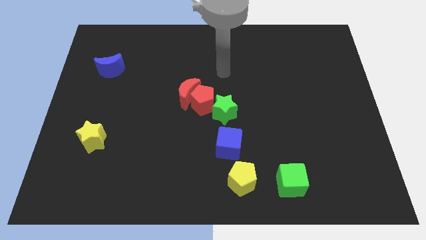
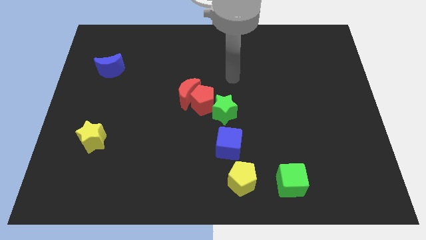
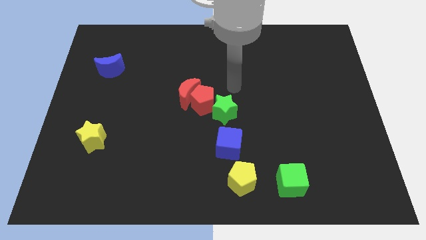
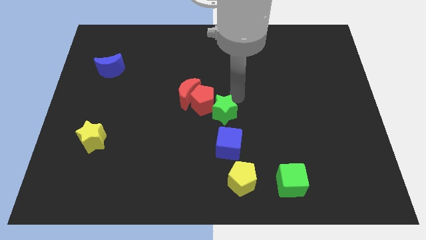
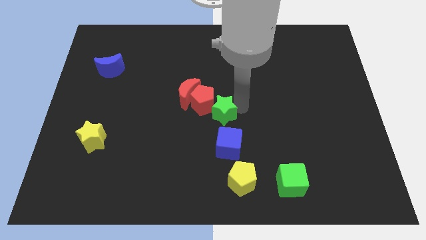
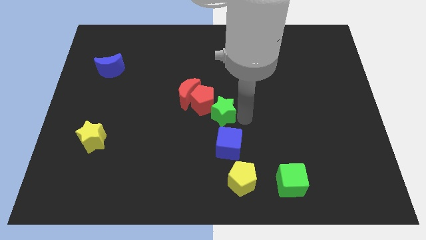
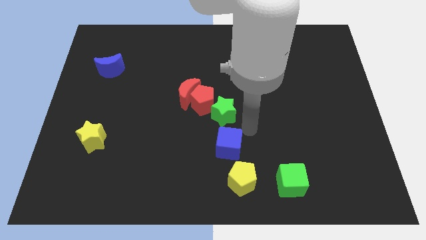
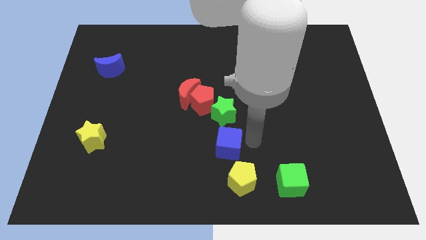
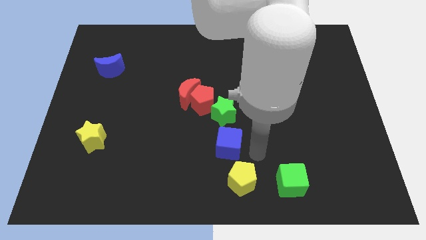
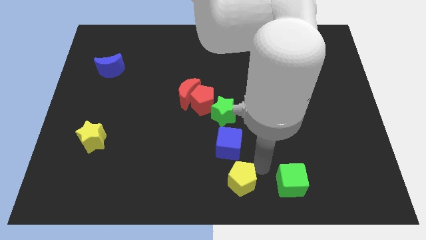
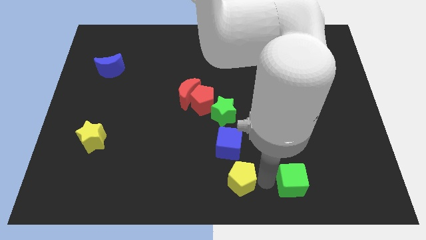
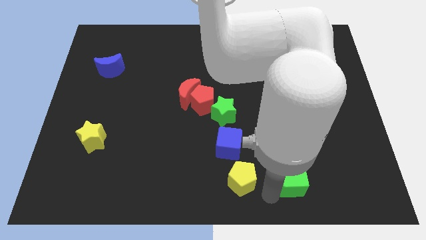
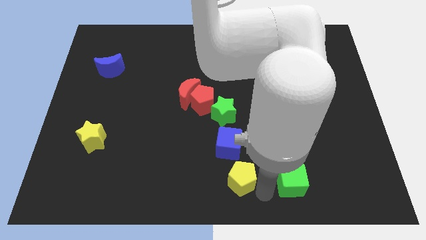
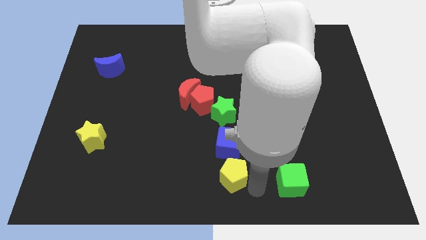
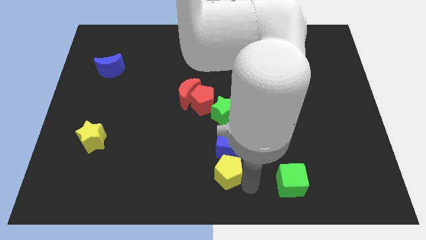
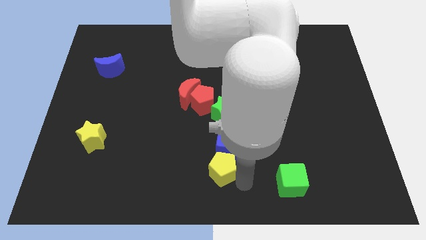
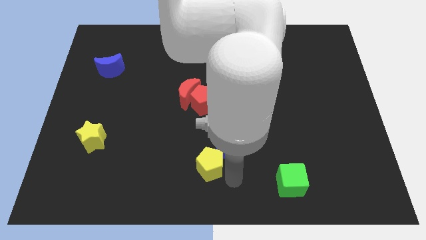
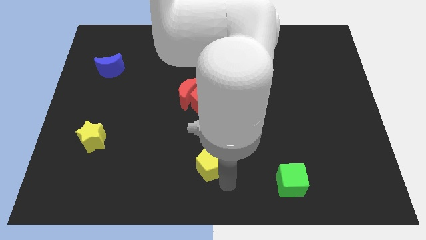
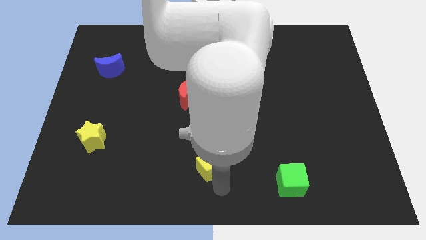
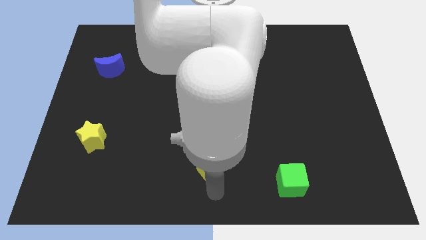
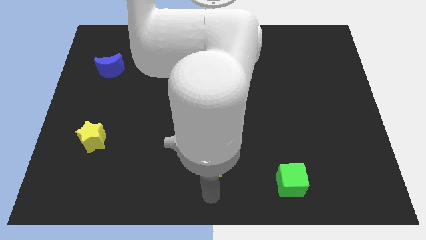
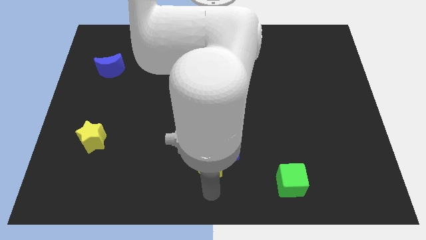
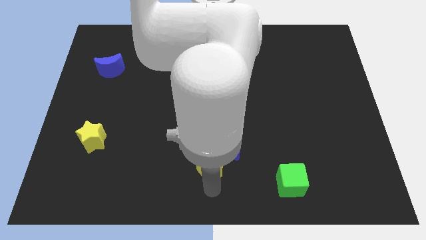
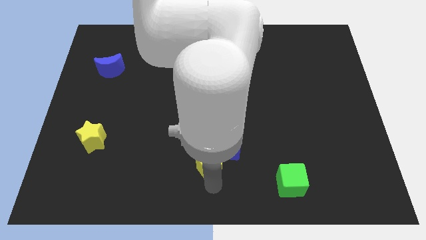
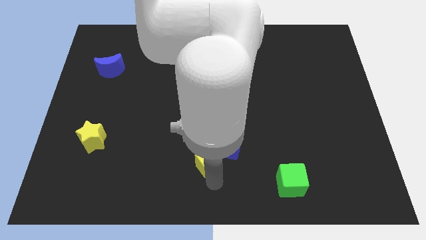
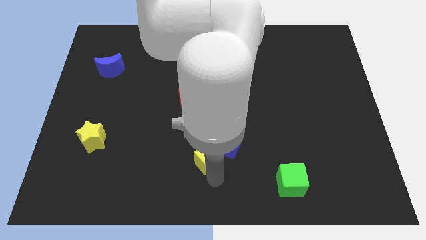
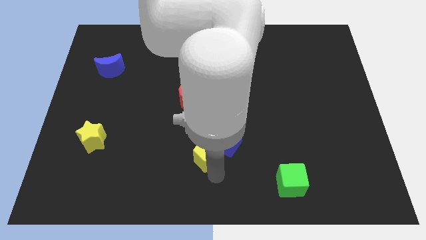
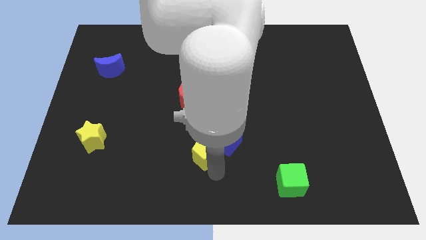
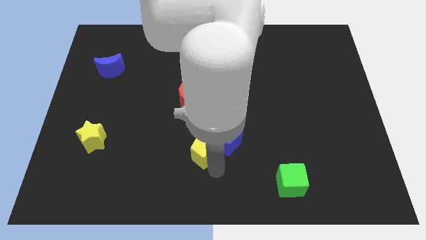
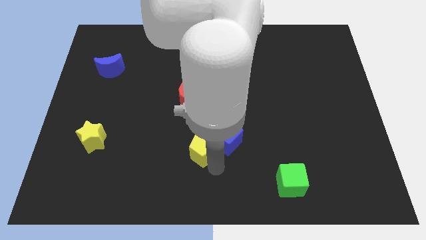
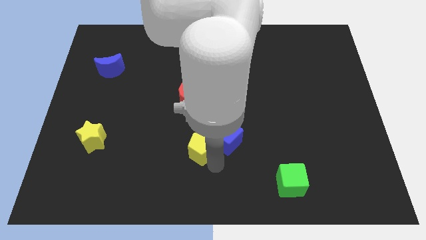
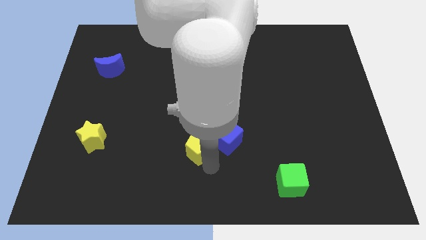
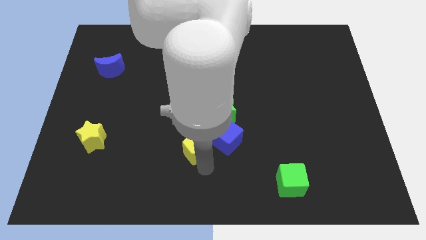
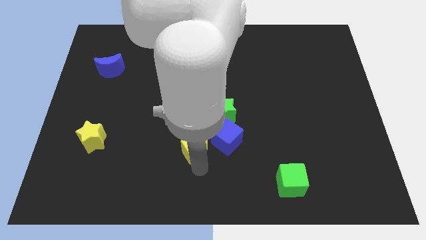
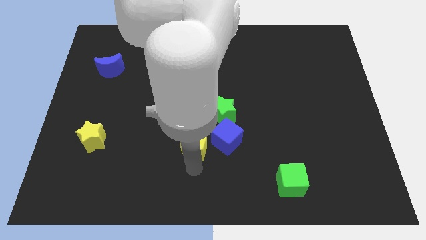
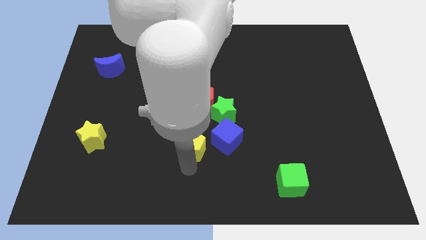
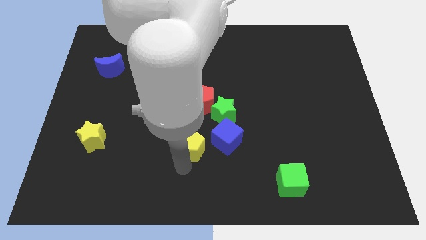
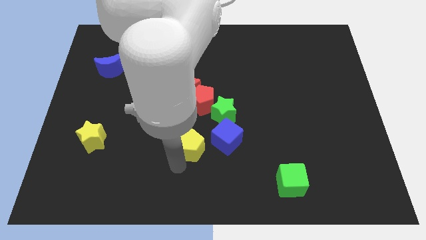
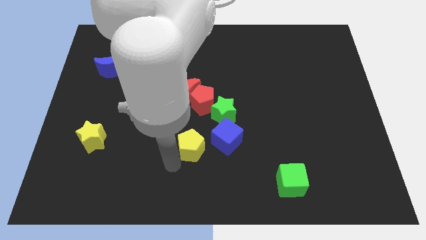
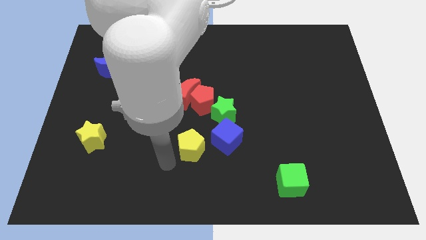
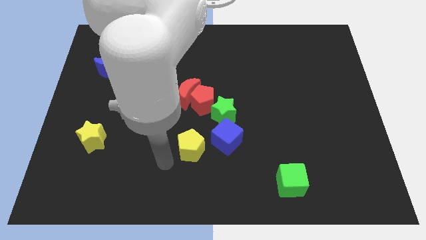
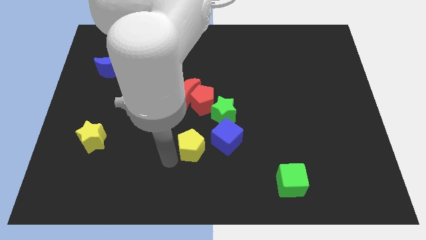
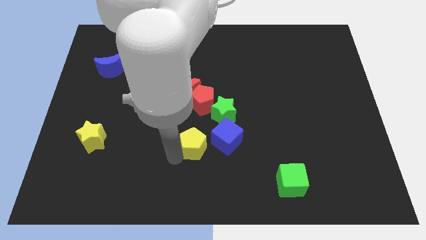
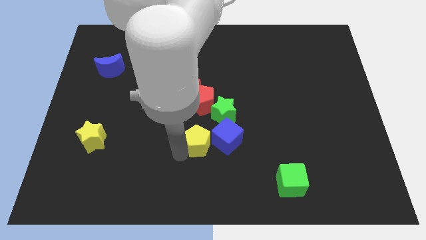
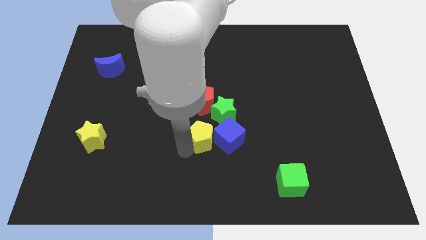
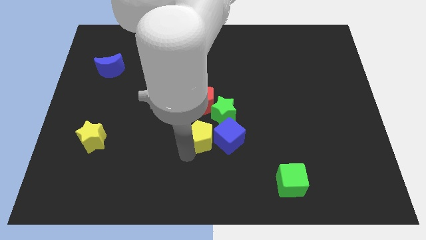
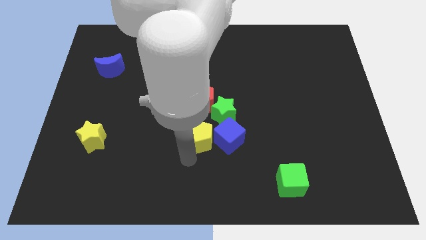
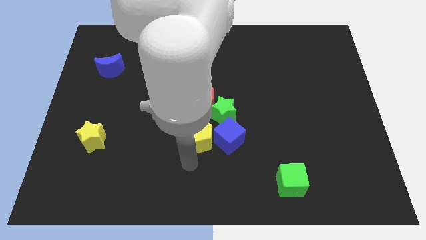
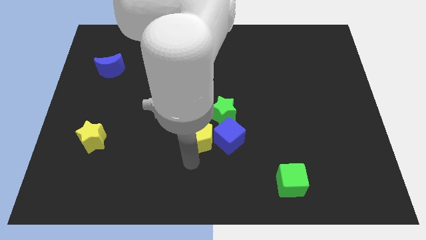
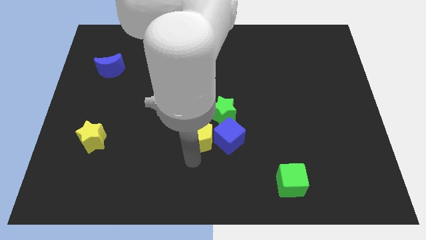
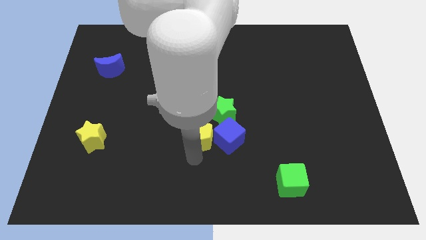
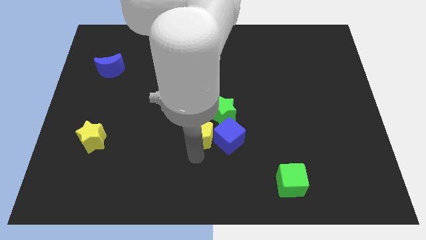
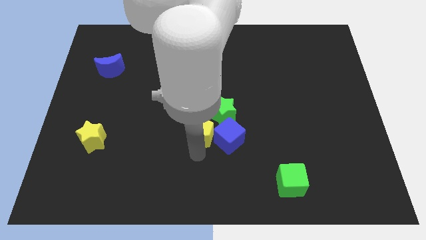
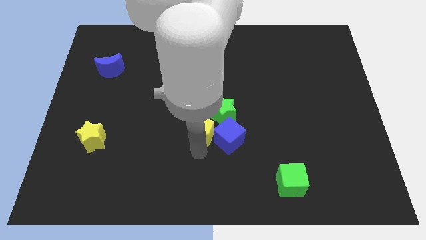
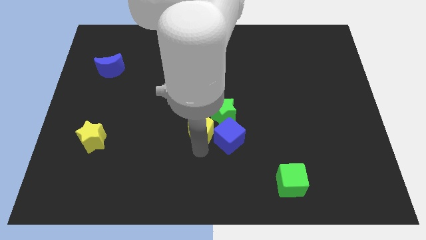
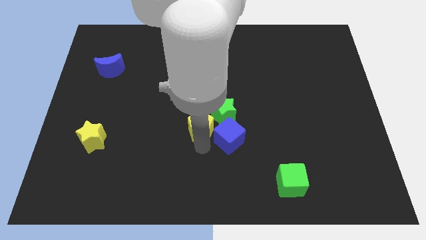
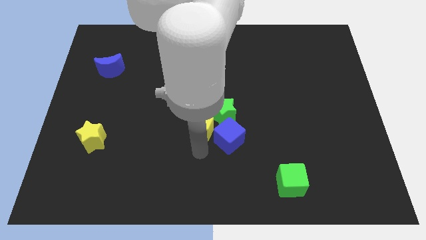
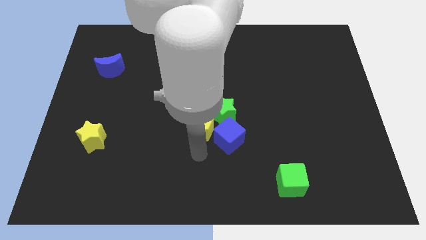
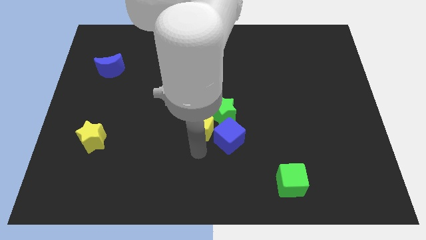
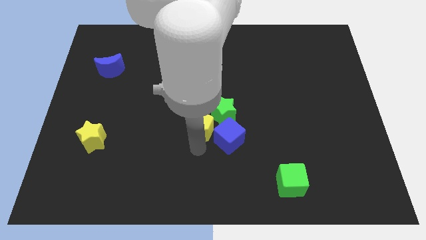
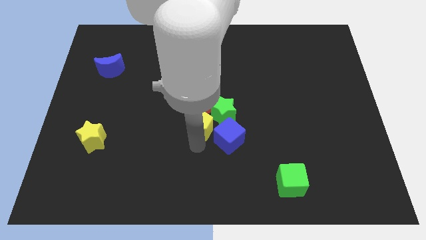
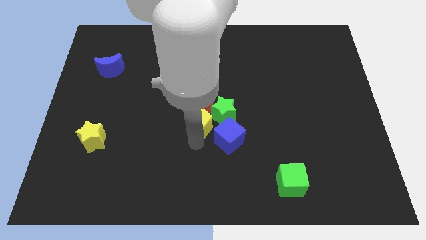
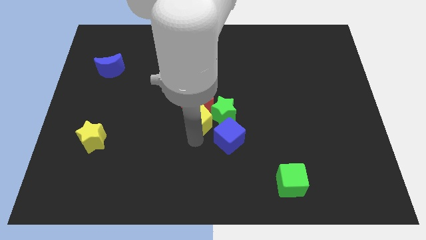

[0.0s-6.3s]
put the yellow pentagon to the red pentagon

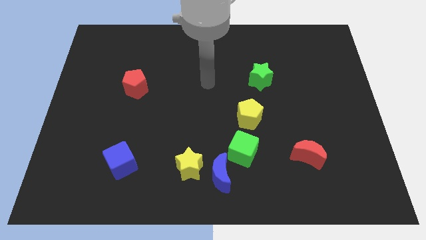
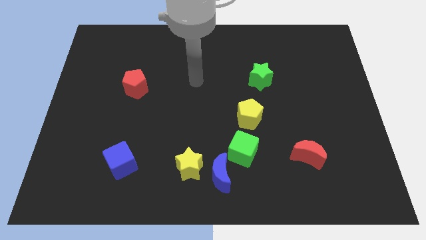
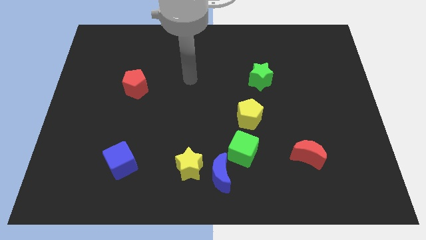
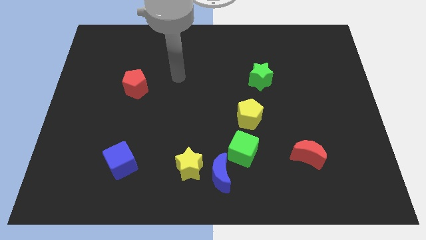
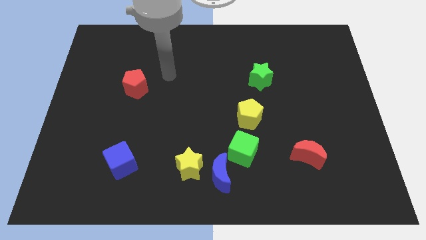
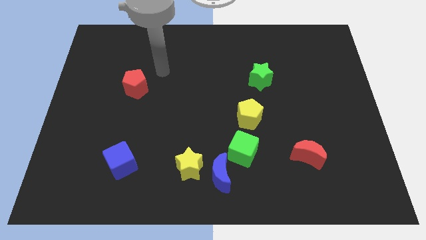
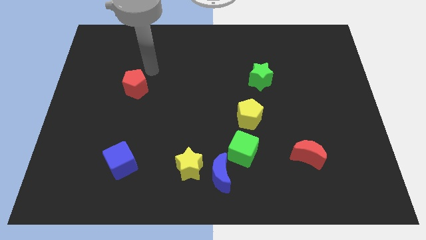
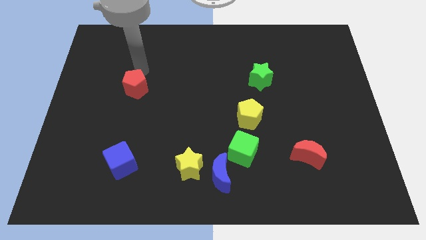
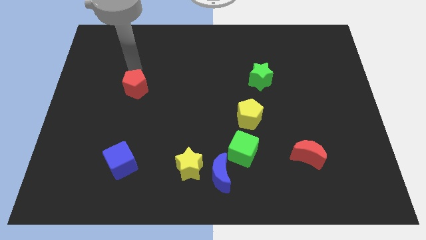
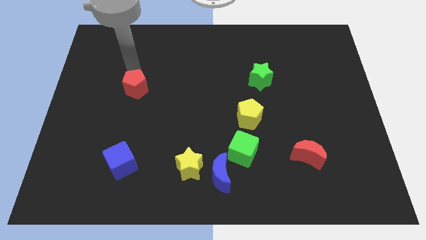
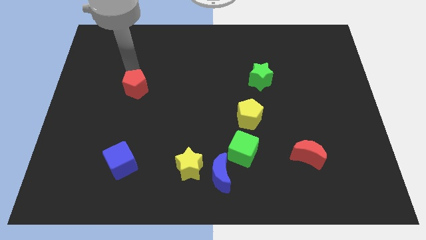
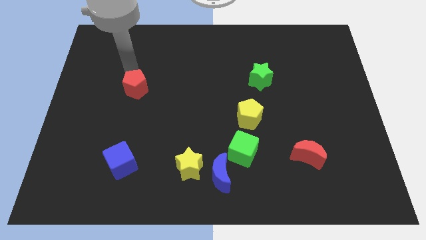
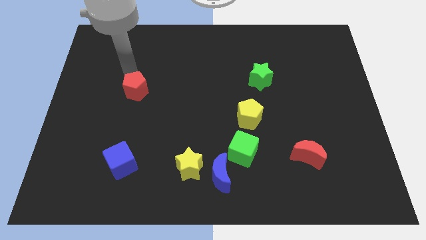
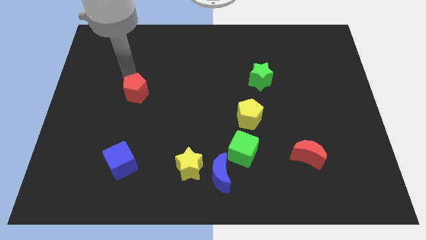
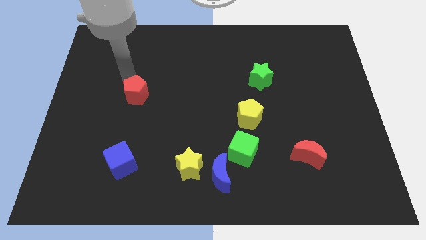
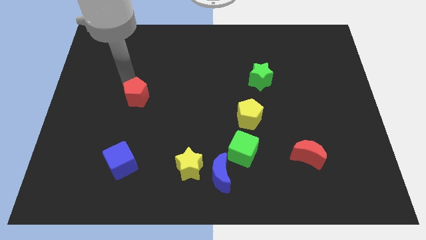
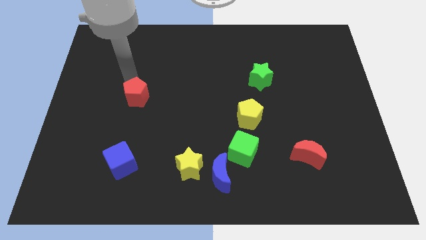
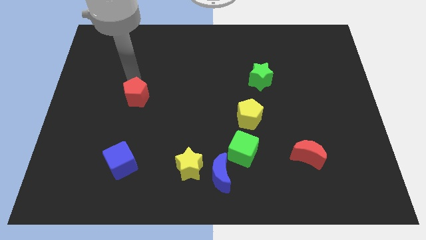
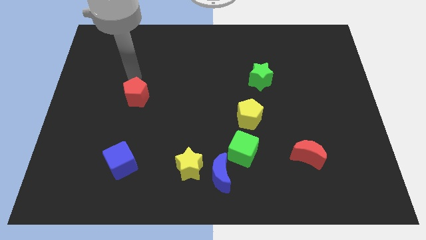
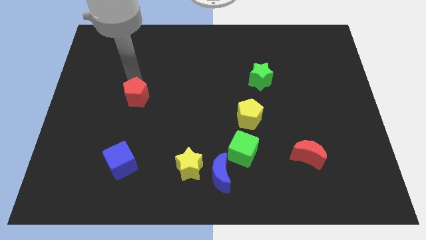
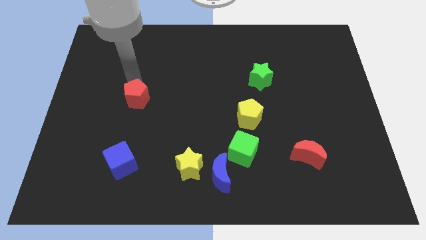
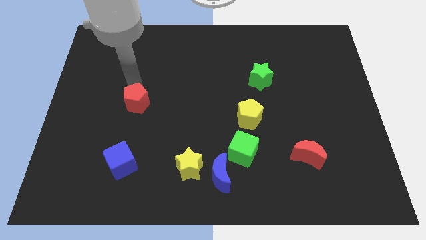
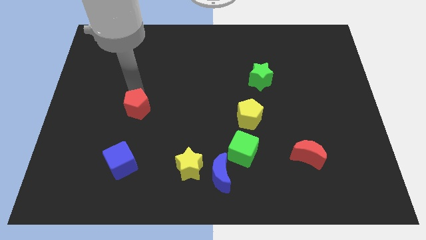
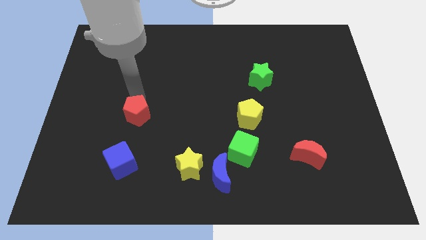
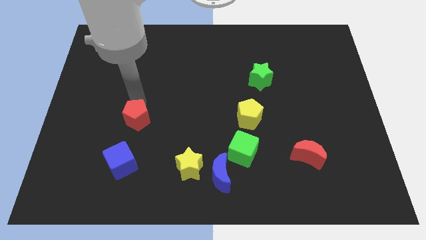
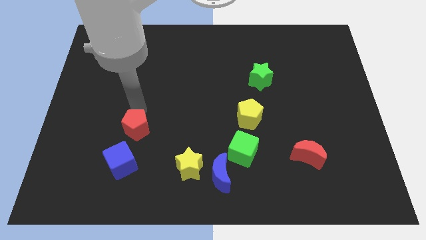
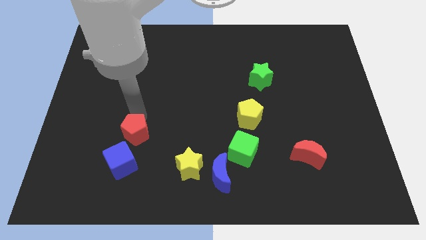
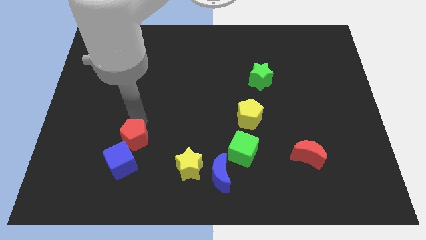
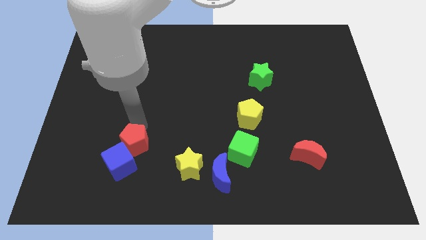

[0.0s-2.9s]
put the red pentagon to the blue cube
